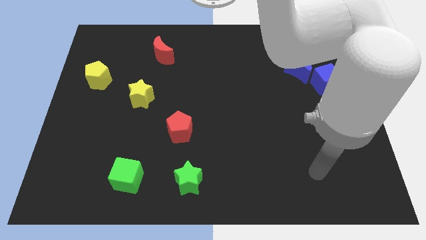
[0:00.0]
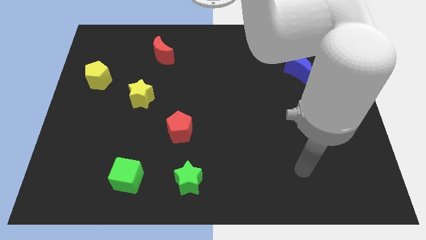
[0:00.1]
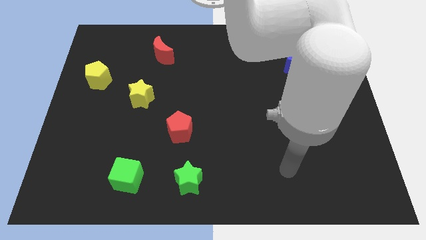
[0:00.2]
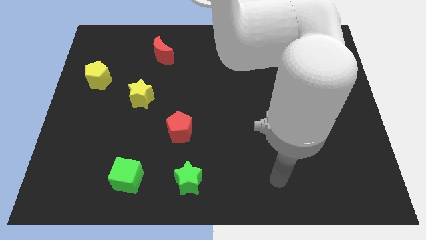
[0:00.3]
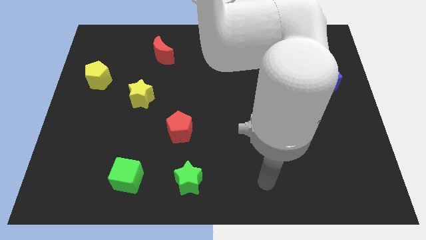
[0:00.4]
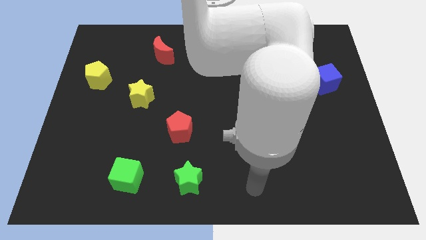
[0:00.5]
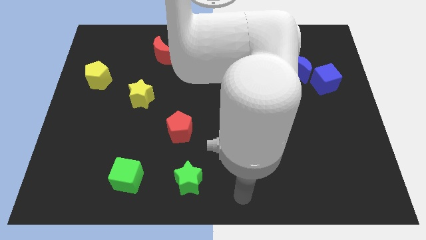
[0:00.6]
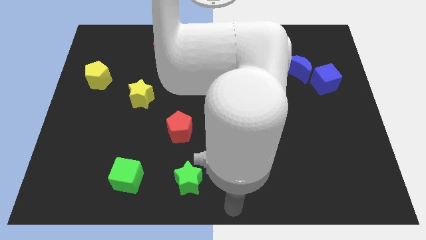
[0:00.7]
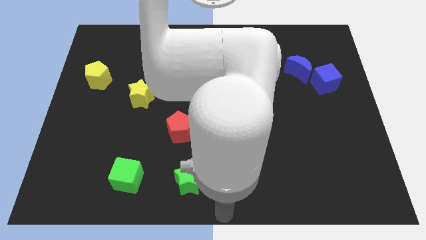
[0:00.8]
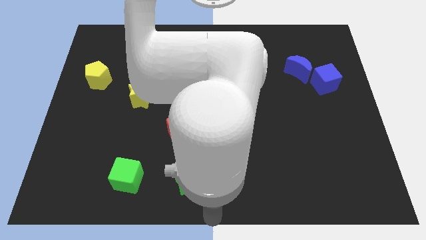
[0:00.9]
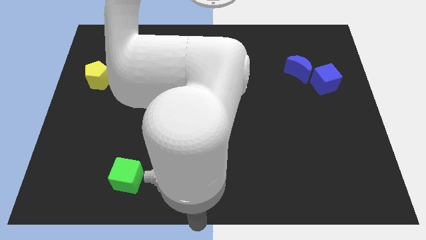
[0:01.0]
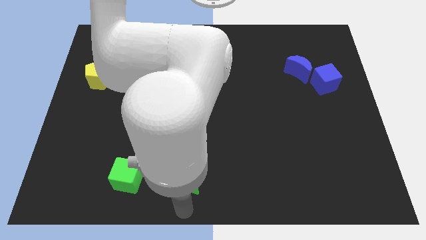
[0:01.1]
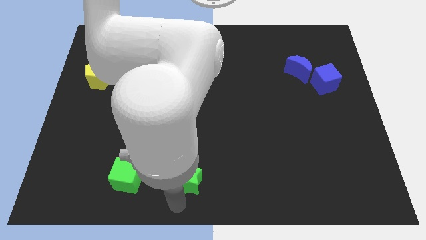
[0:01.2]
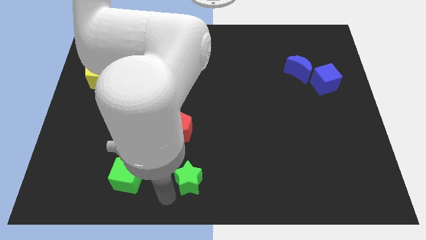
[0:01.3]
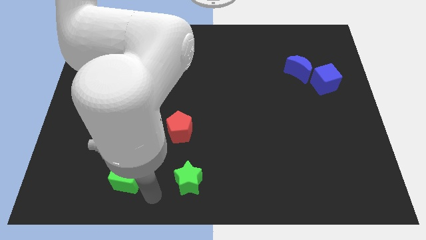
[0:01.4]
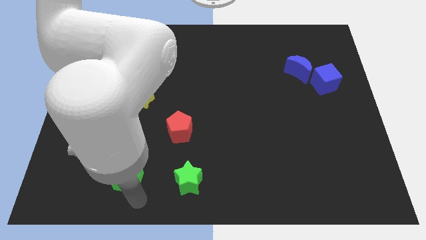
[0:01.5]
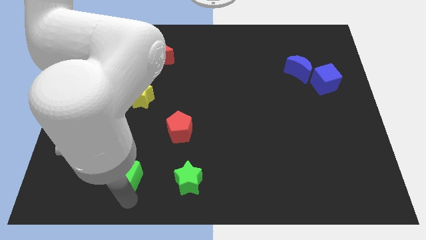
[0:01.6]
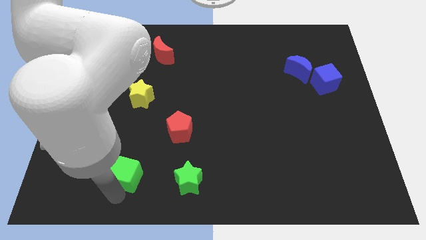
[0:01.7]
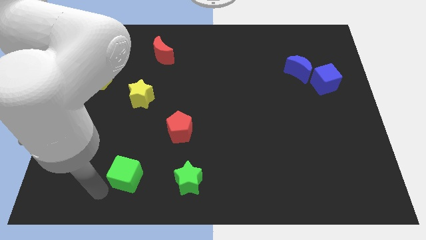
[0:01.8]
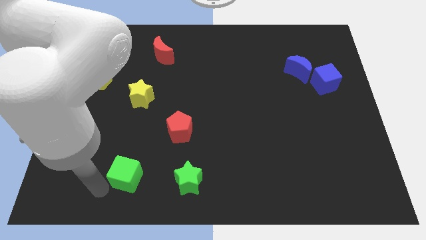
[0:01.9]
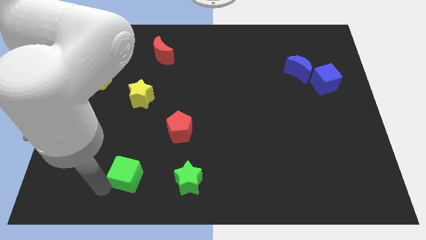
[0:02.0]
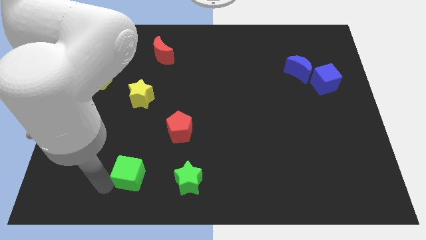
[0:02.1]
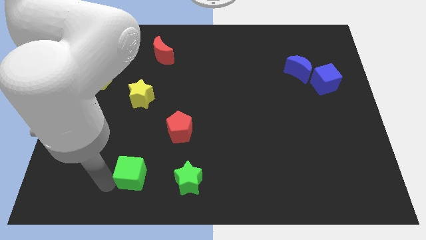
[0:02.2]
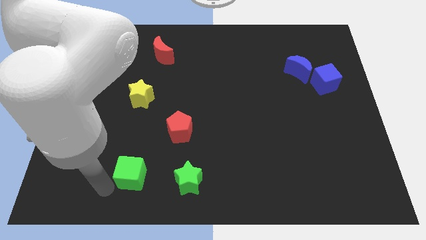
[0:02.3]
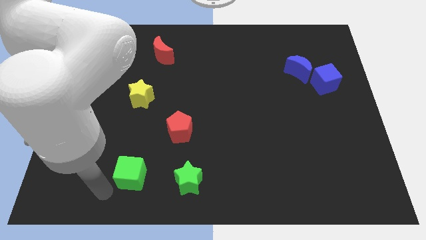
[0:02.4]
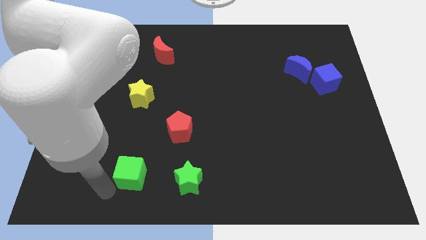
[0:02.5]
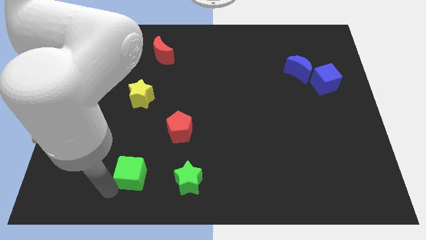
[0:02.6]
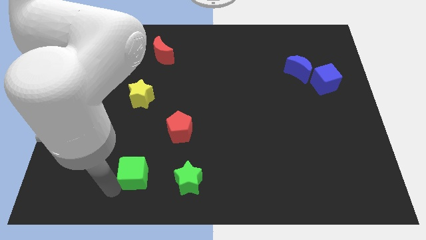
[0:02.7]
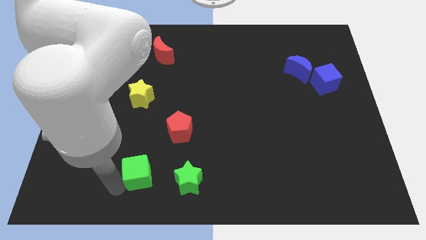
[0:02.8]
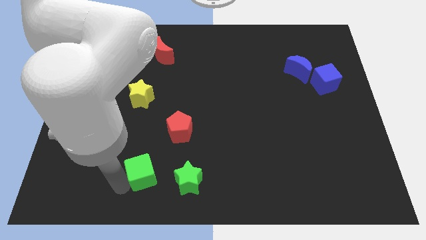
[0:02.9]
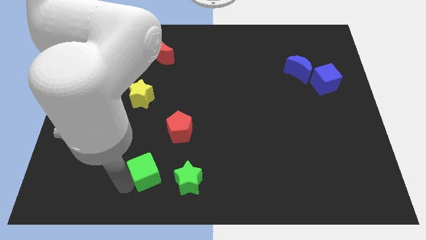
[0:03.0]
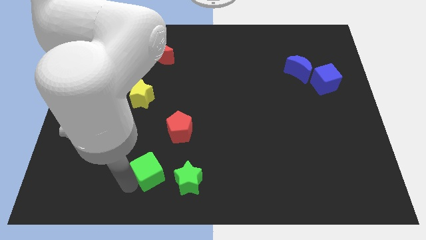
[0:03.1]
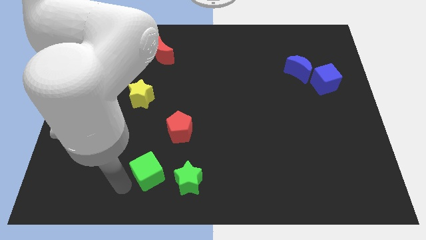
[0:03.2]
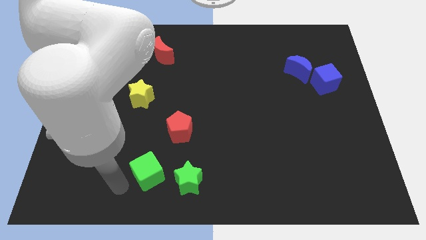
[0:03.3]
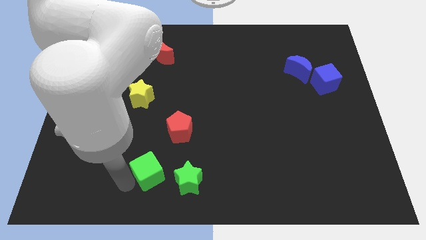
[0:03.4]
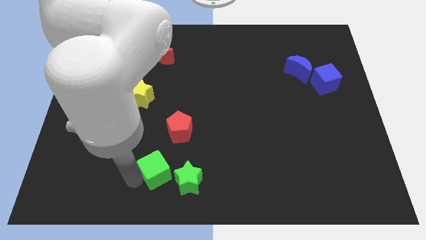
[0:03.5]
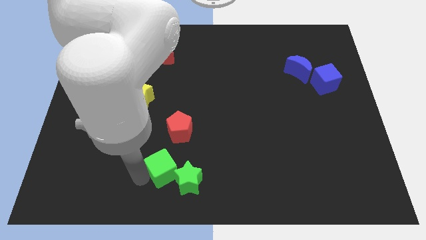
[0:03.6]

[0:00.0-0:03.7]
slightly push the green cube right

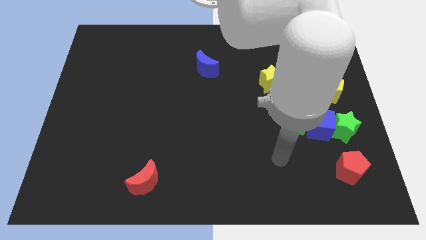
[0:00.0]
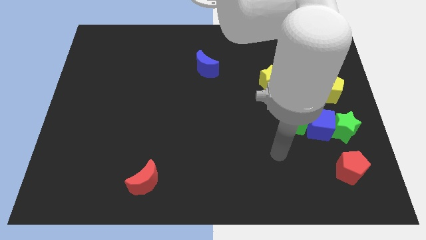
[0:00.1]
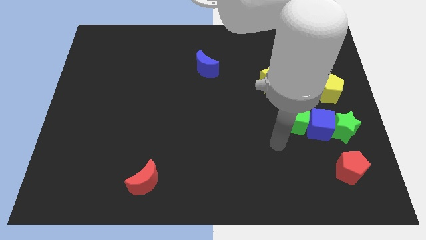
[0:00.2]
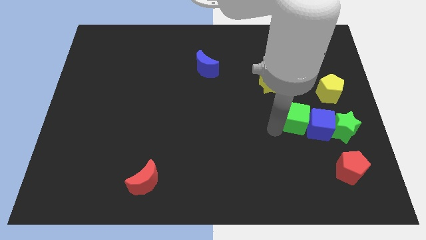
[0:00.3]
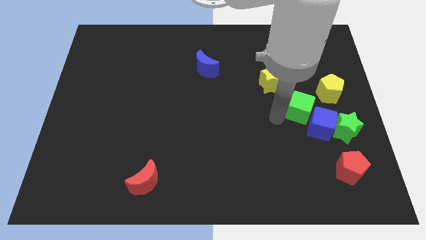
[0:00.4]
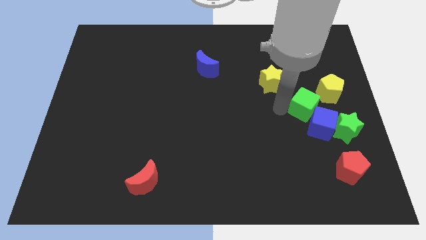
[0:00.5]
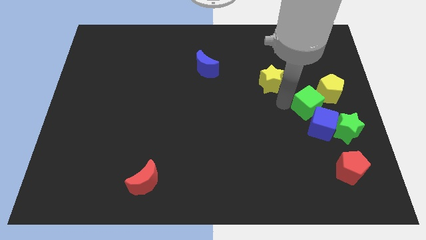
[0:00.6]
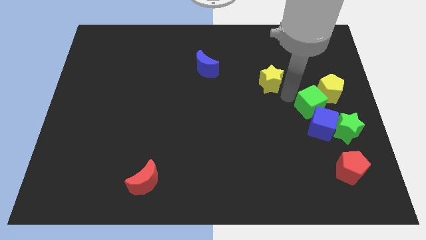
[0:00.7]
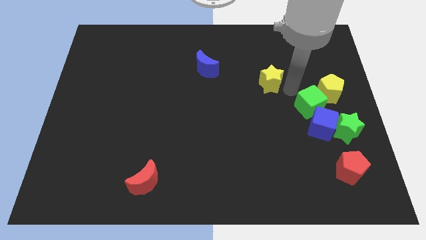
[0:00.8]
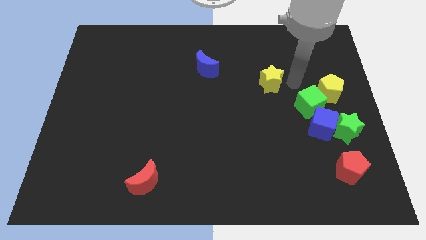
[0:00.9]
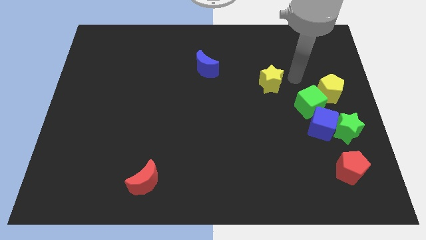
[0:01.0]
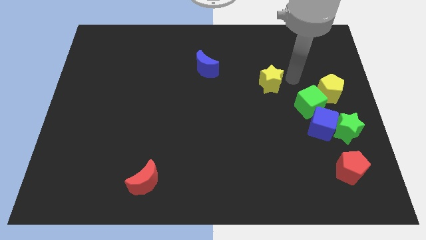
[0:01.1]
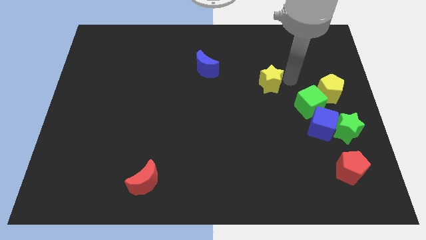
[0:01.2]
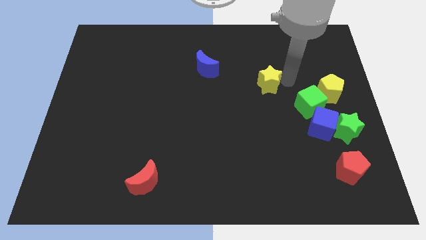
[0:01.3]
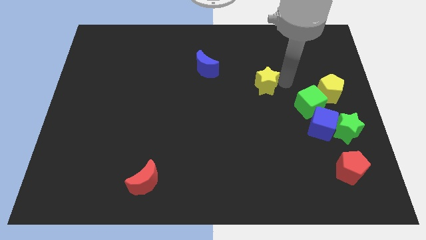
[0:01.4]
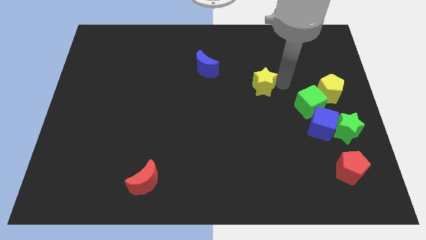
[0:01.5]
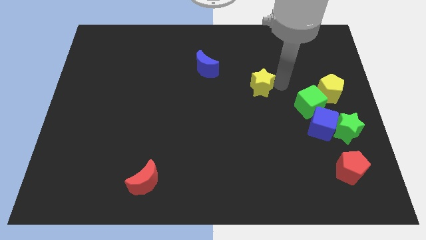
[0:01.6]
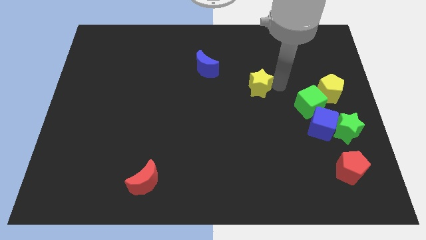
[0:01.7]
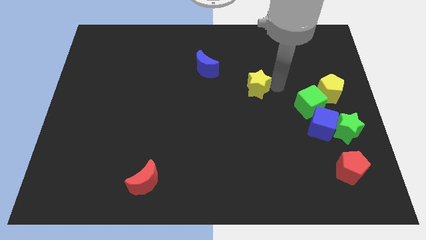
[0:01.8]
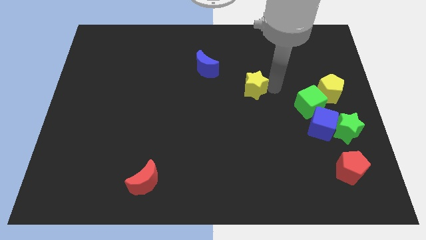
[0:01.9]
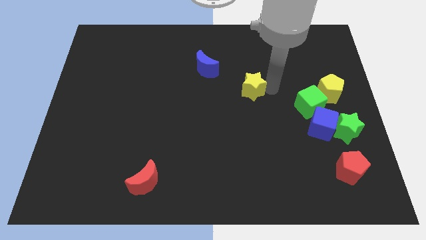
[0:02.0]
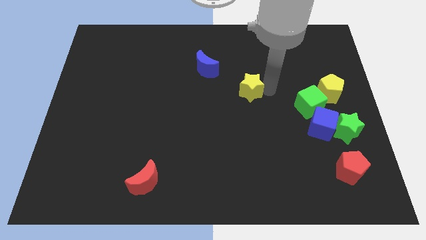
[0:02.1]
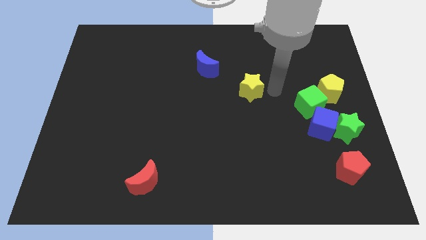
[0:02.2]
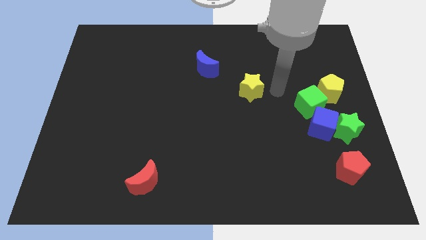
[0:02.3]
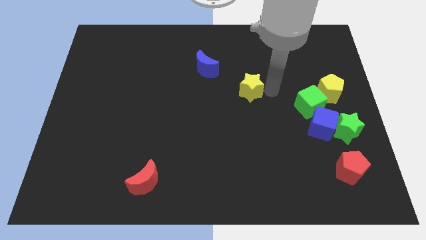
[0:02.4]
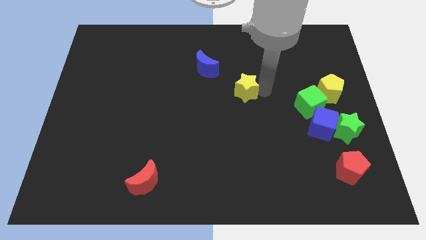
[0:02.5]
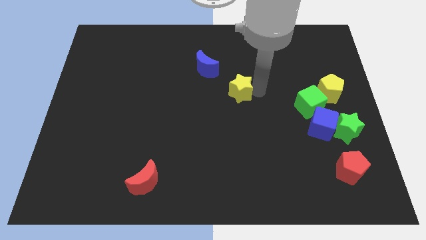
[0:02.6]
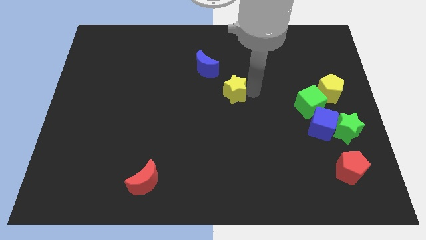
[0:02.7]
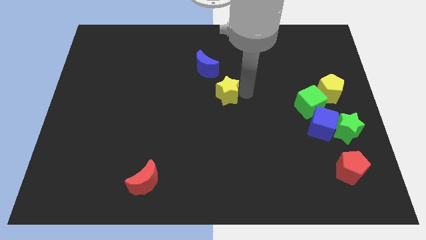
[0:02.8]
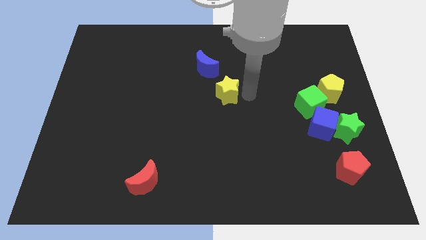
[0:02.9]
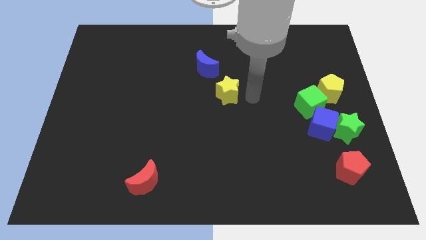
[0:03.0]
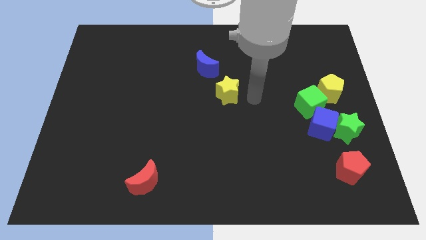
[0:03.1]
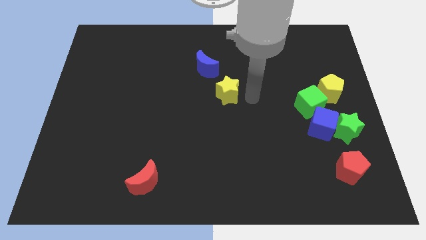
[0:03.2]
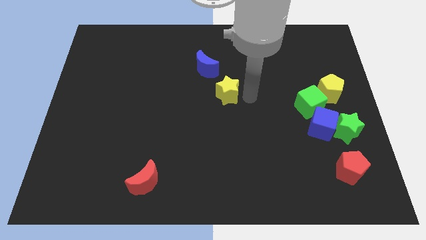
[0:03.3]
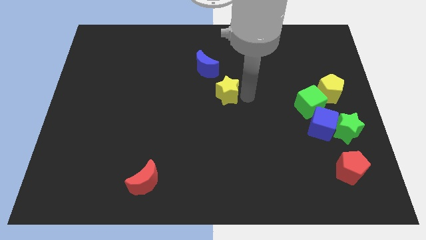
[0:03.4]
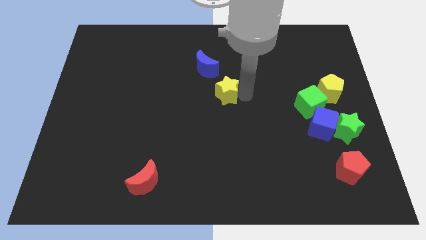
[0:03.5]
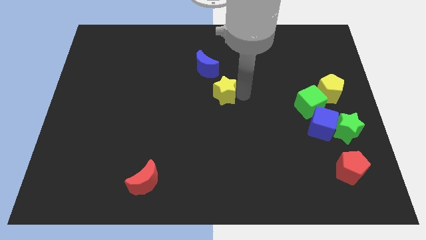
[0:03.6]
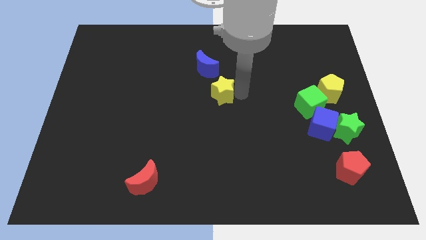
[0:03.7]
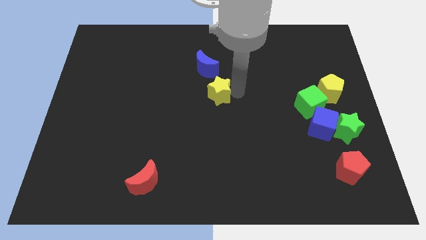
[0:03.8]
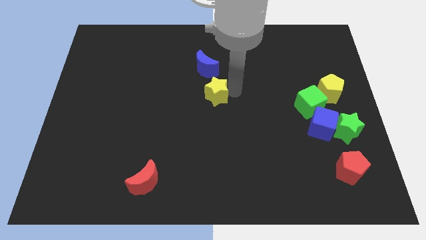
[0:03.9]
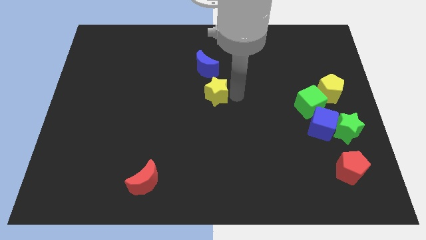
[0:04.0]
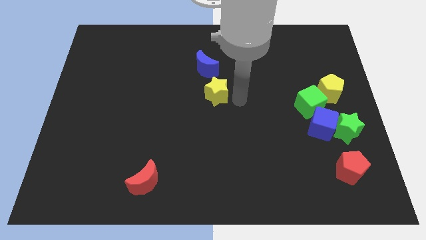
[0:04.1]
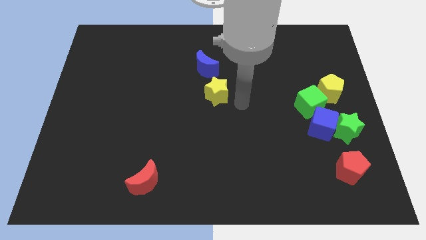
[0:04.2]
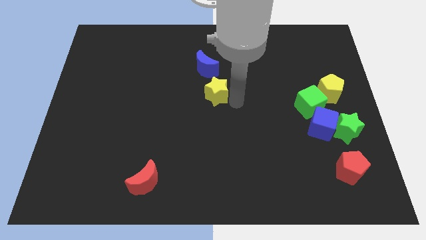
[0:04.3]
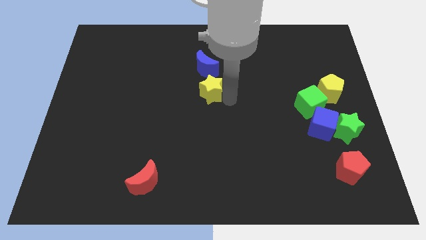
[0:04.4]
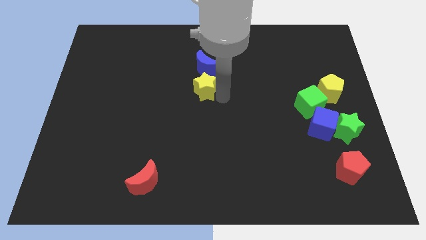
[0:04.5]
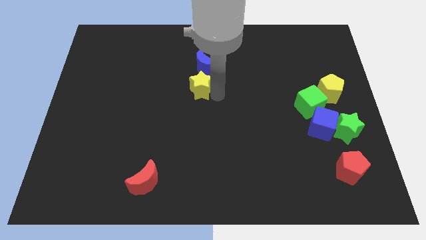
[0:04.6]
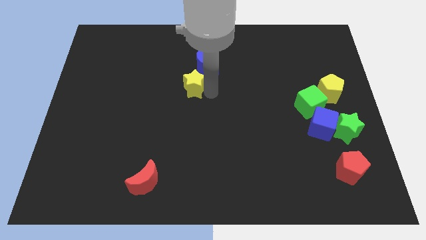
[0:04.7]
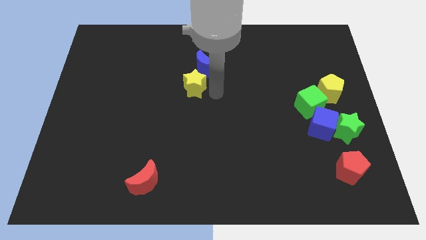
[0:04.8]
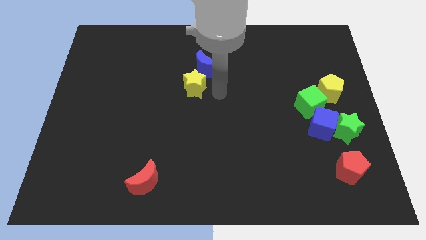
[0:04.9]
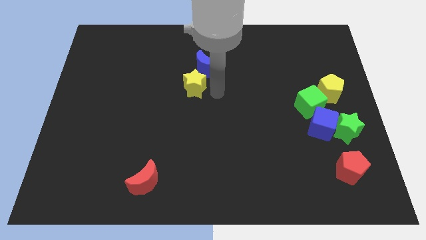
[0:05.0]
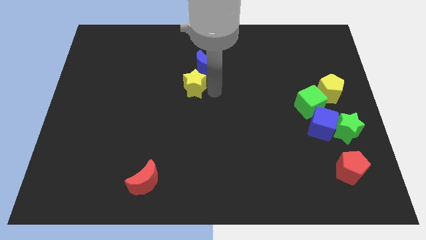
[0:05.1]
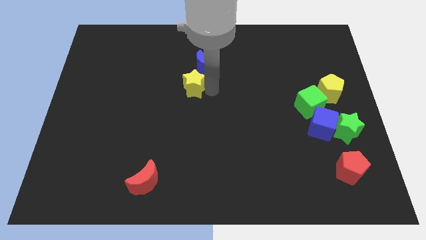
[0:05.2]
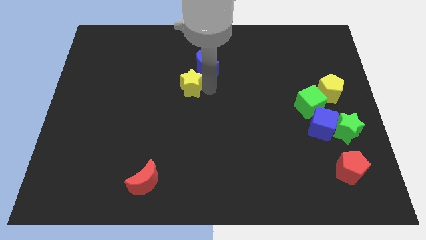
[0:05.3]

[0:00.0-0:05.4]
move the yellow star to the left
